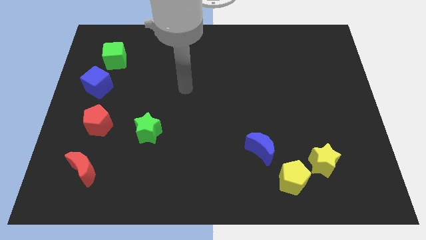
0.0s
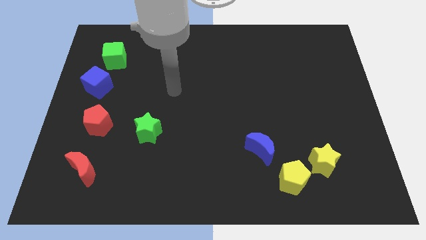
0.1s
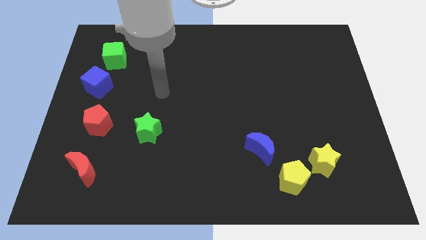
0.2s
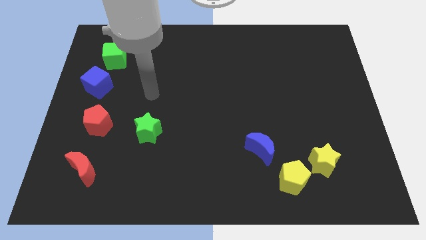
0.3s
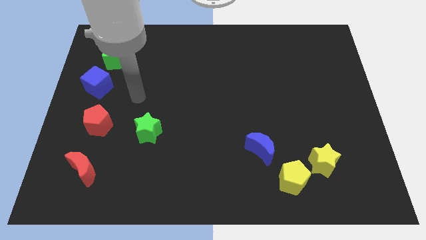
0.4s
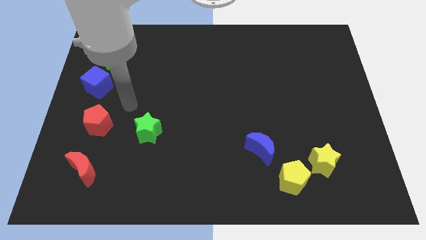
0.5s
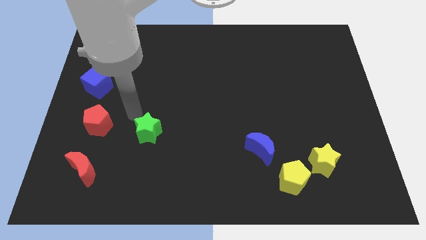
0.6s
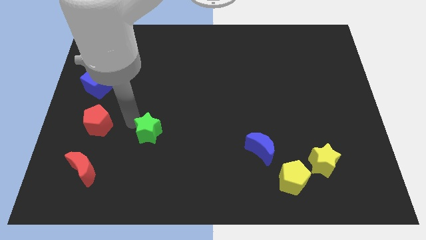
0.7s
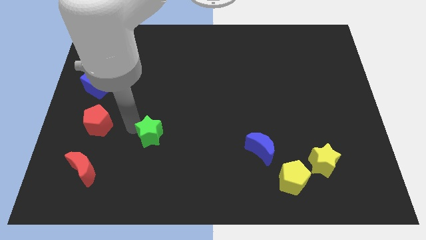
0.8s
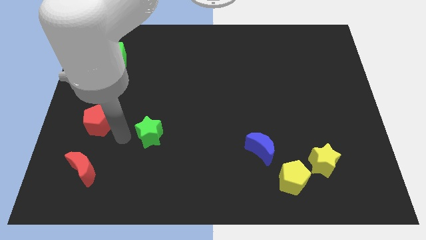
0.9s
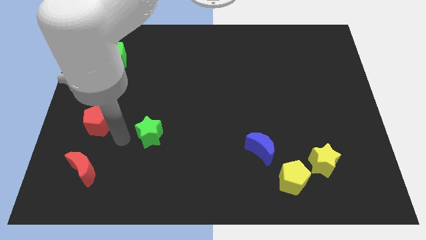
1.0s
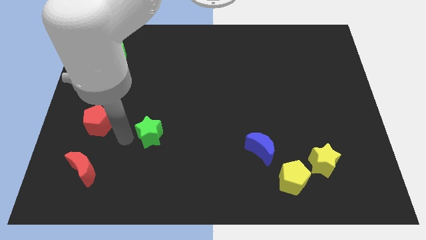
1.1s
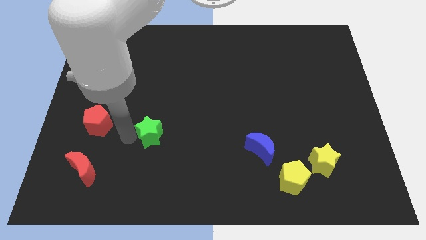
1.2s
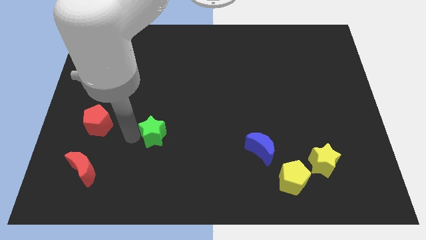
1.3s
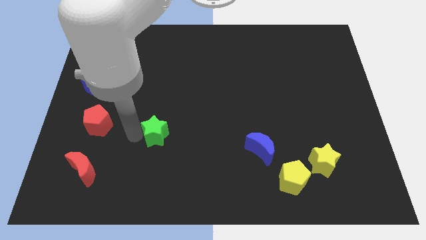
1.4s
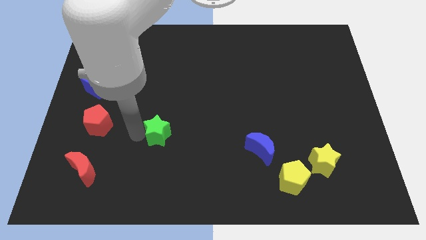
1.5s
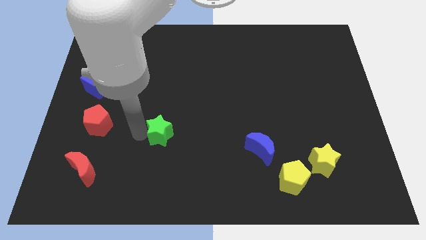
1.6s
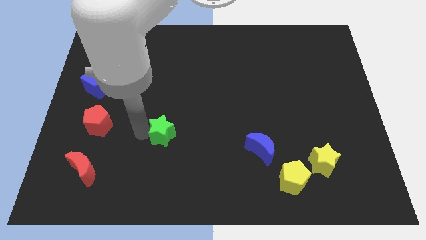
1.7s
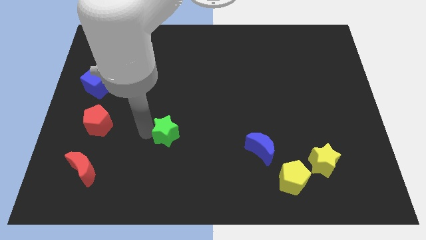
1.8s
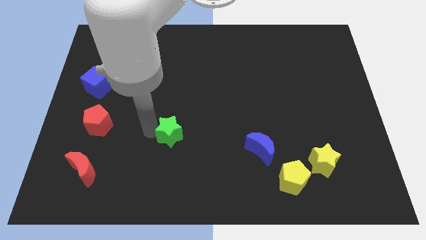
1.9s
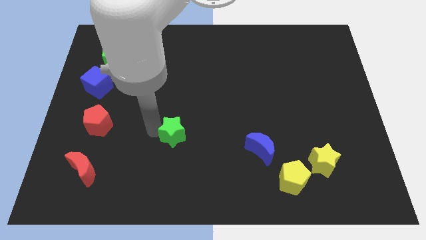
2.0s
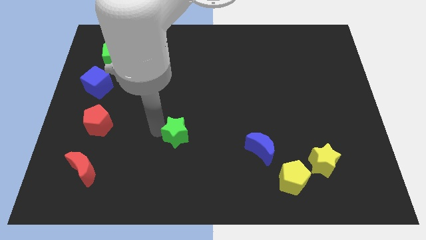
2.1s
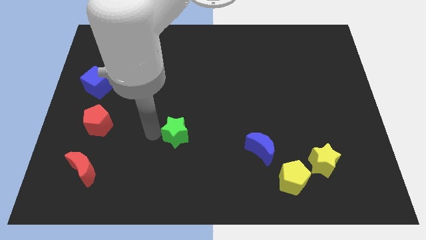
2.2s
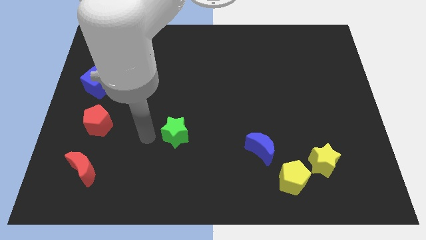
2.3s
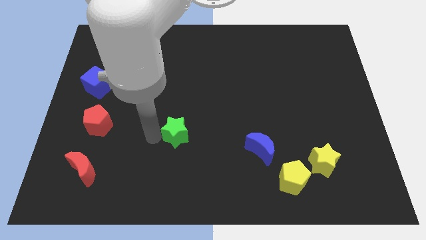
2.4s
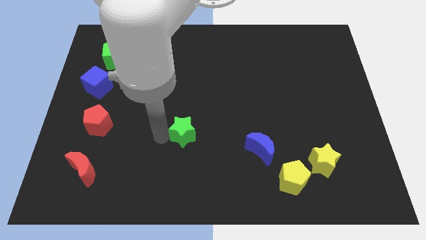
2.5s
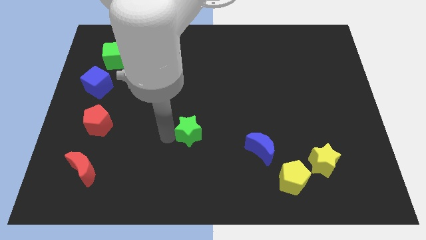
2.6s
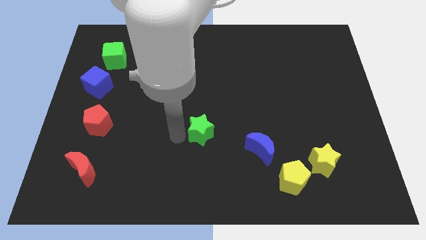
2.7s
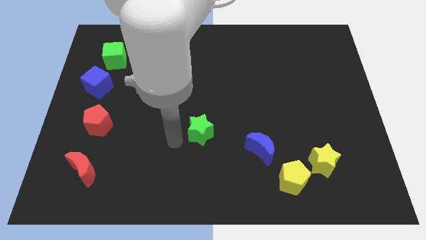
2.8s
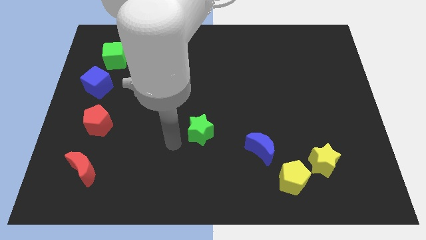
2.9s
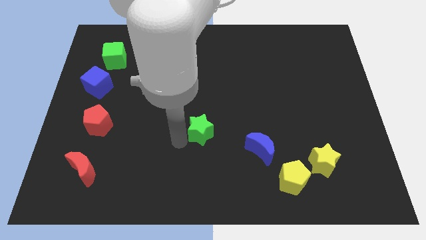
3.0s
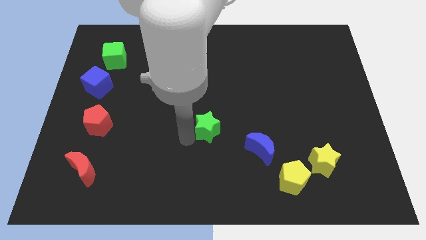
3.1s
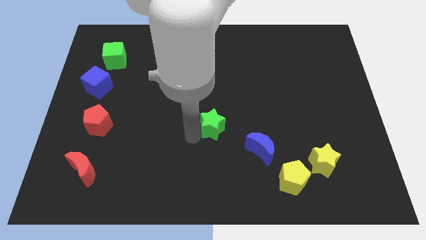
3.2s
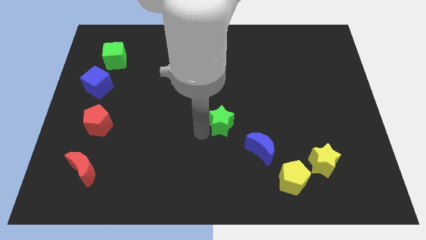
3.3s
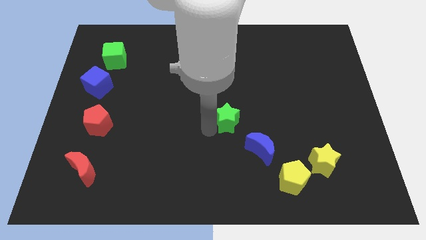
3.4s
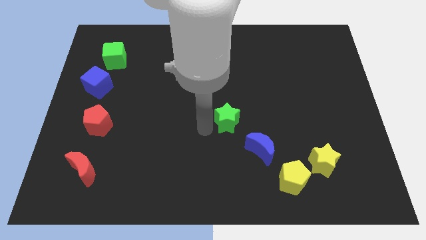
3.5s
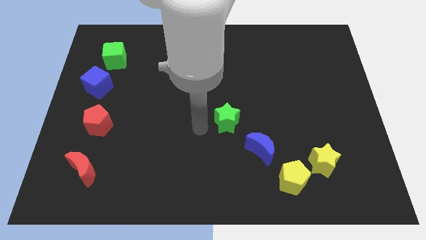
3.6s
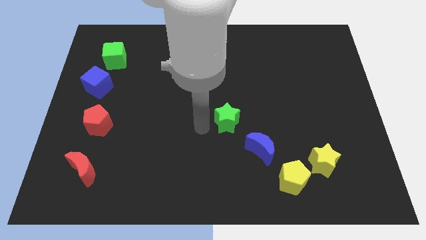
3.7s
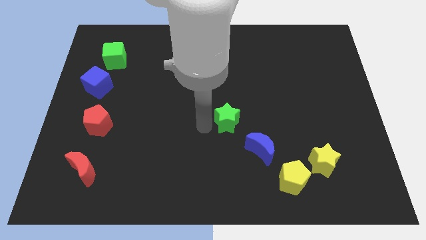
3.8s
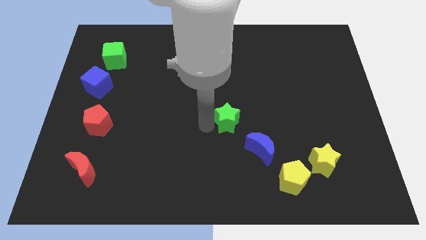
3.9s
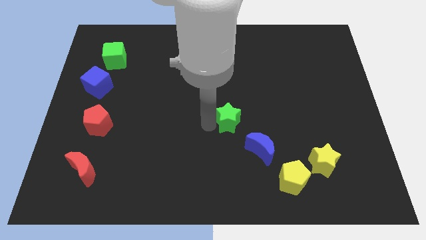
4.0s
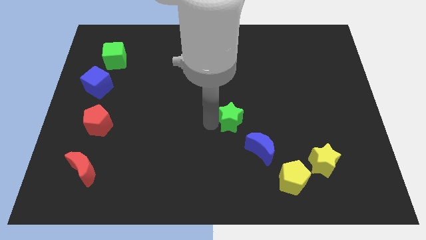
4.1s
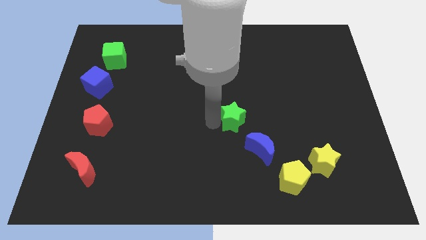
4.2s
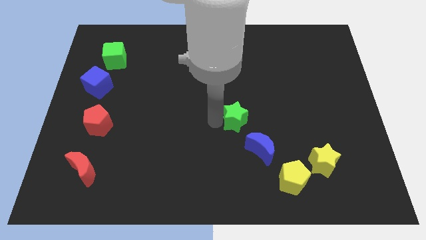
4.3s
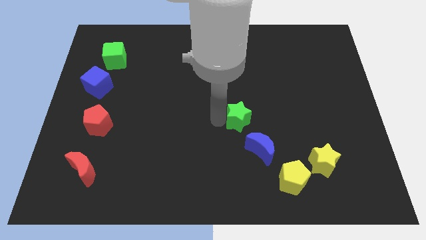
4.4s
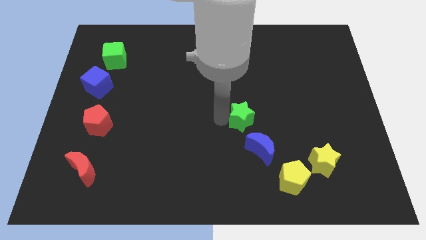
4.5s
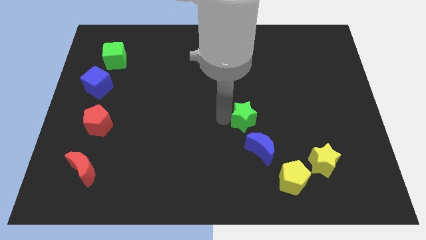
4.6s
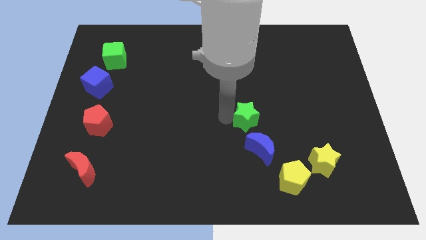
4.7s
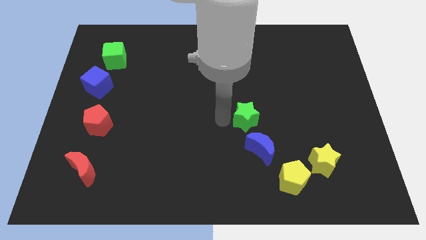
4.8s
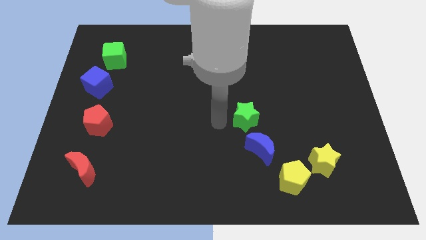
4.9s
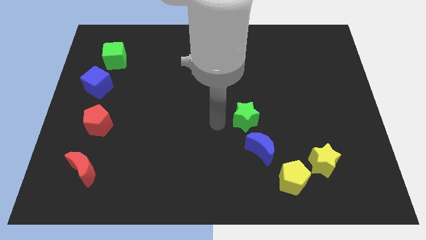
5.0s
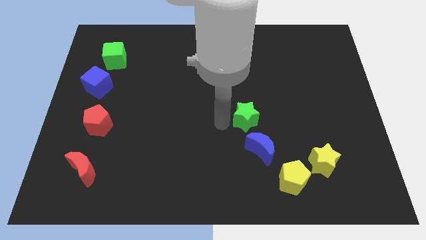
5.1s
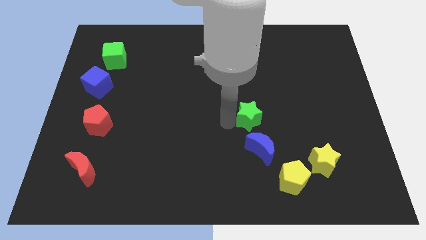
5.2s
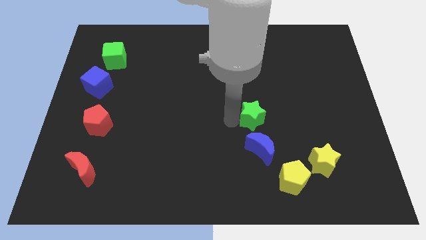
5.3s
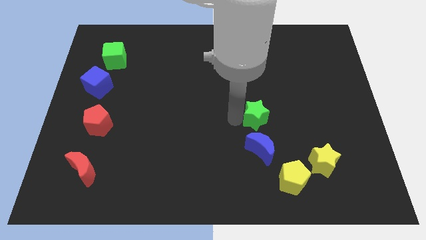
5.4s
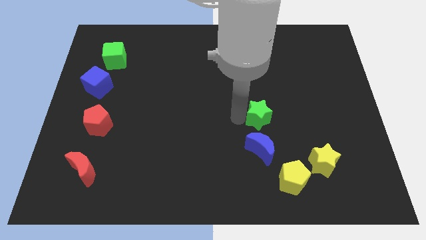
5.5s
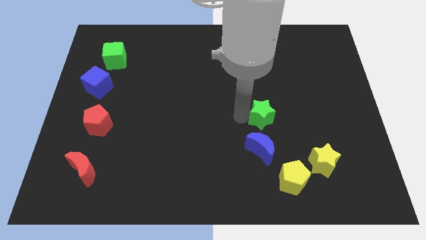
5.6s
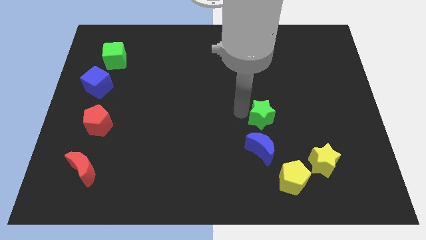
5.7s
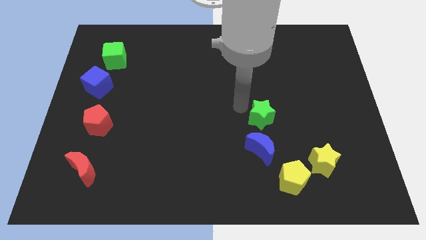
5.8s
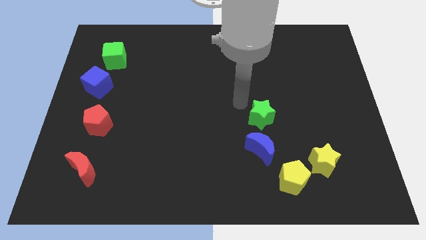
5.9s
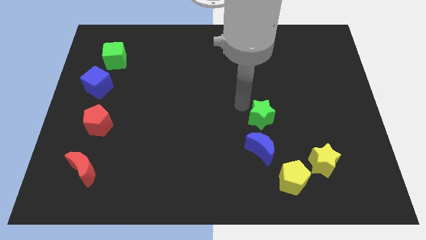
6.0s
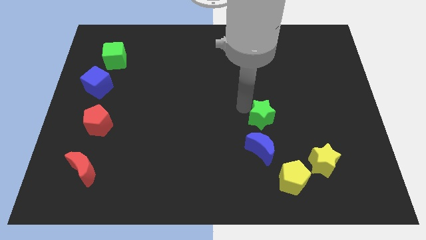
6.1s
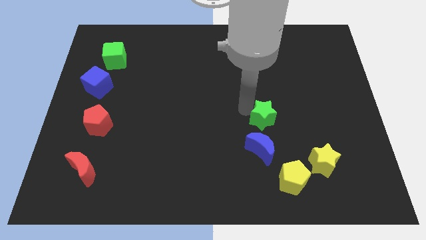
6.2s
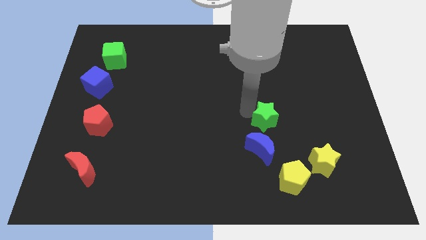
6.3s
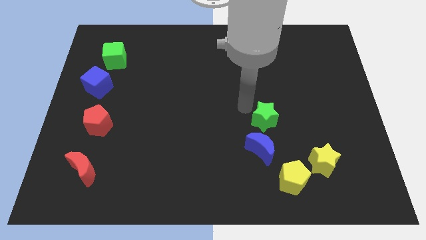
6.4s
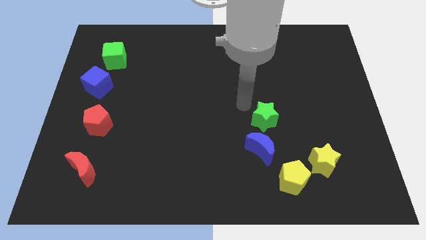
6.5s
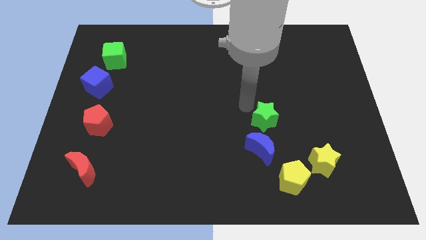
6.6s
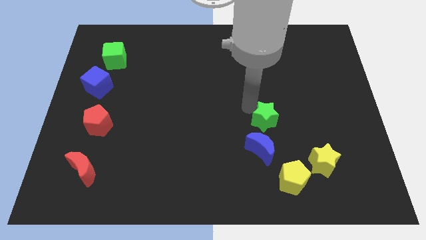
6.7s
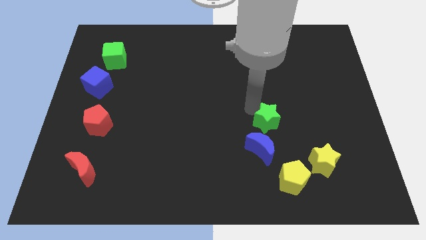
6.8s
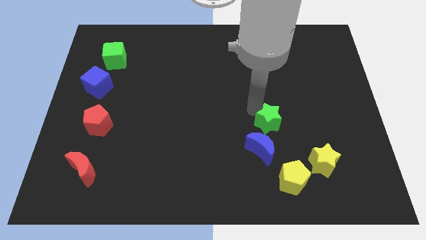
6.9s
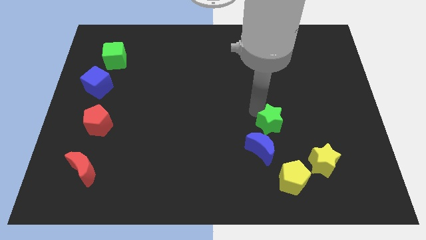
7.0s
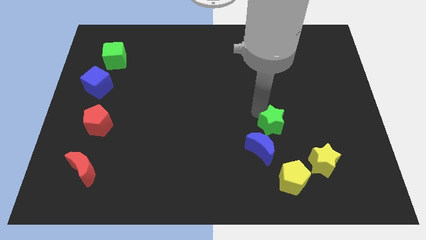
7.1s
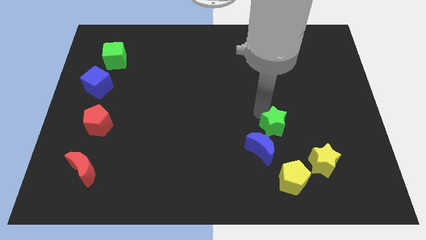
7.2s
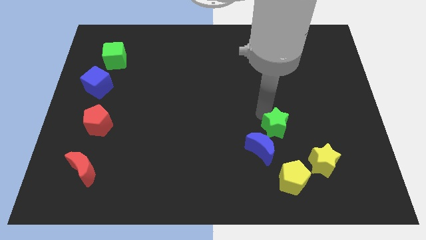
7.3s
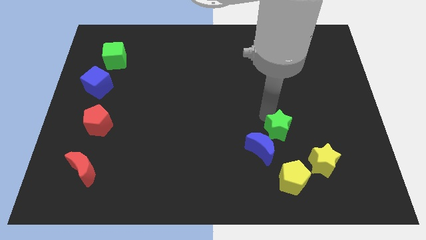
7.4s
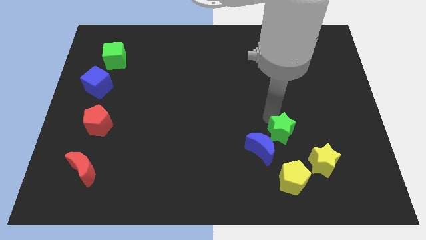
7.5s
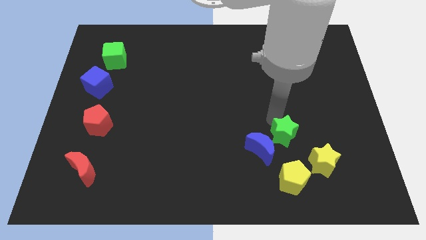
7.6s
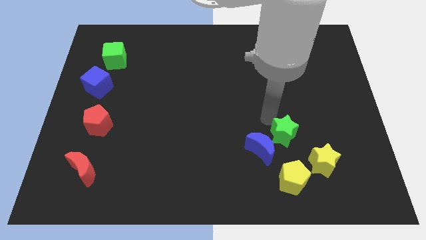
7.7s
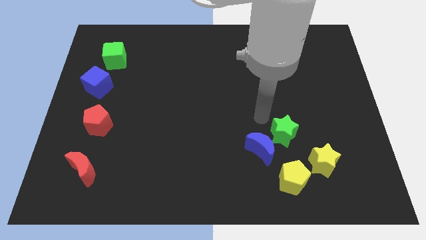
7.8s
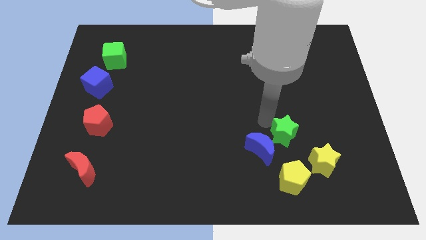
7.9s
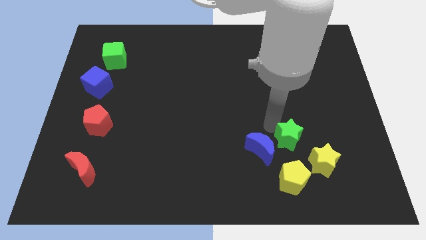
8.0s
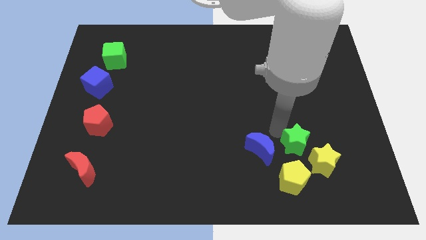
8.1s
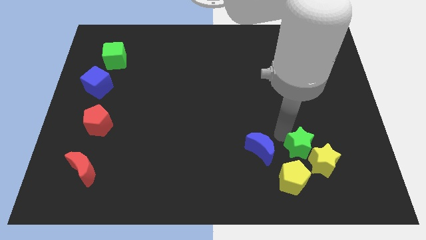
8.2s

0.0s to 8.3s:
push the green star to the yellow star
